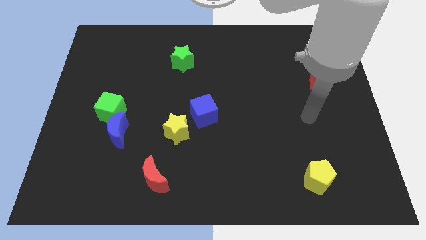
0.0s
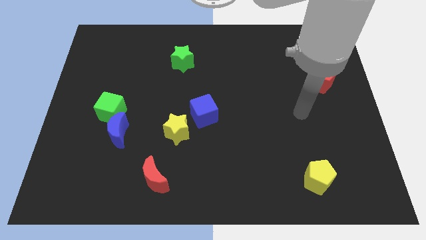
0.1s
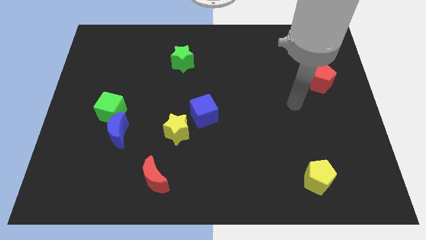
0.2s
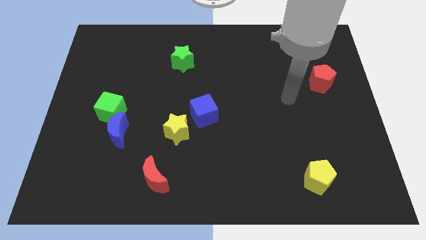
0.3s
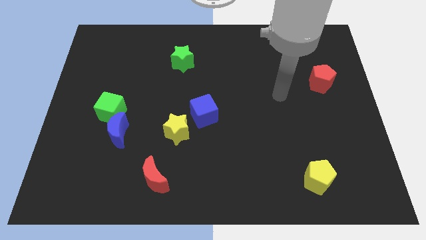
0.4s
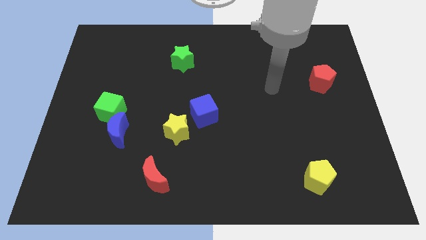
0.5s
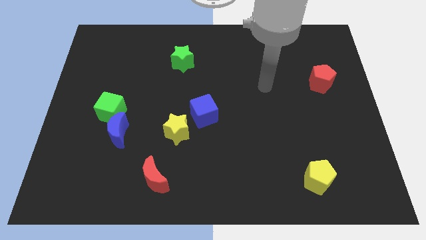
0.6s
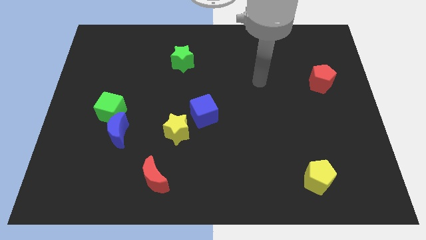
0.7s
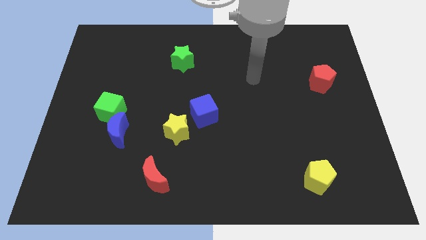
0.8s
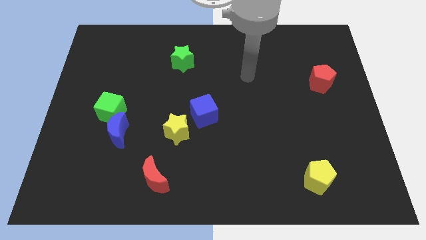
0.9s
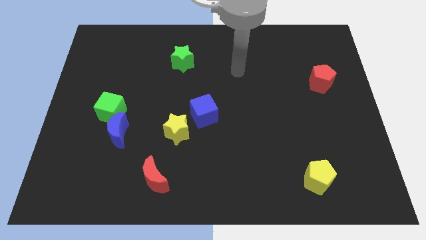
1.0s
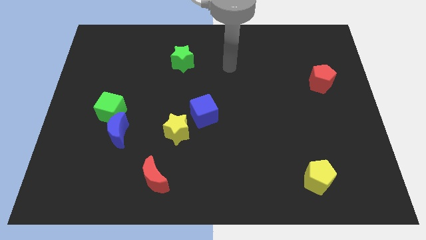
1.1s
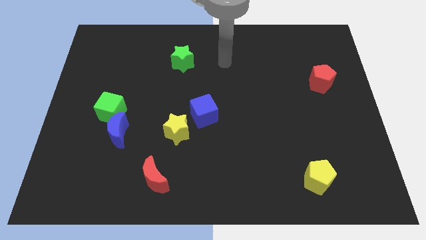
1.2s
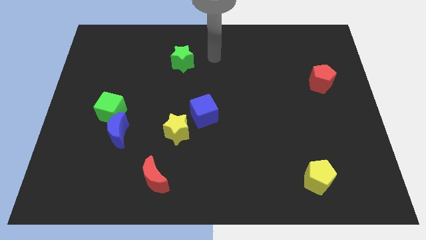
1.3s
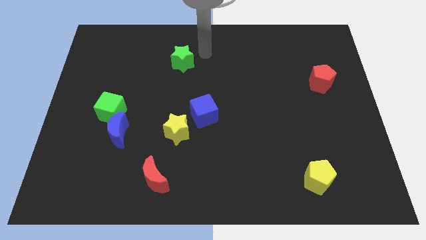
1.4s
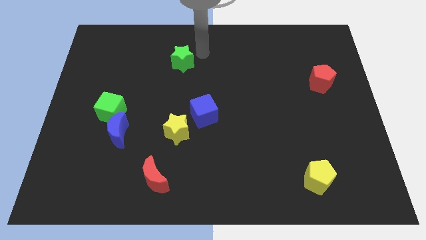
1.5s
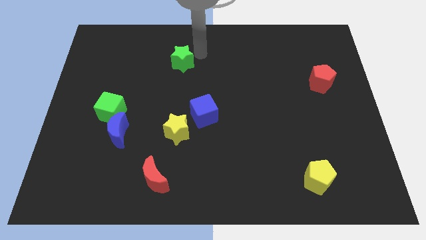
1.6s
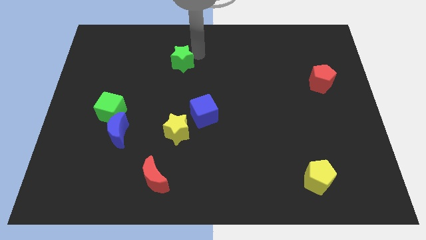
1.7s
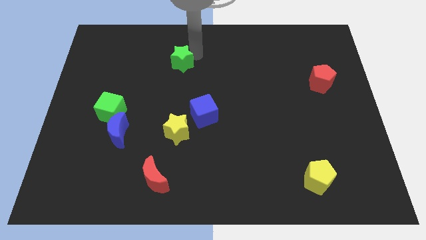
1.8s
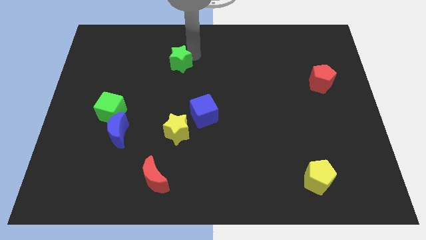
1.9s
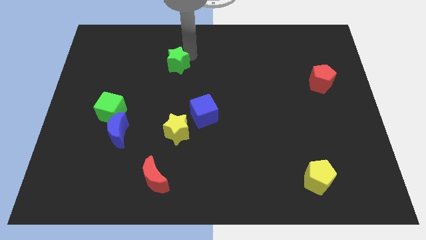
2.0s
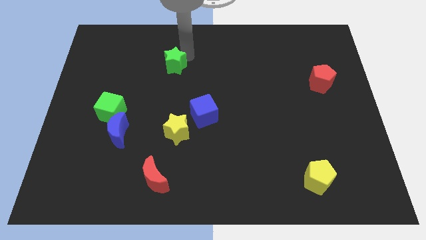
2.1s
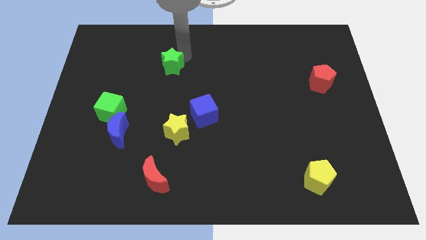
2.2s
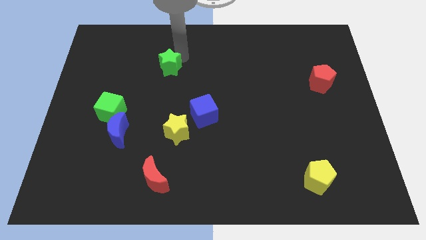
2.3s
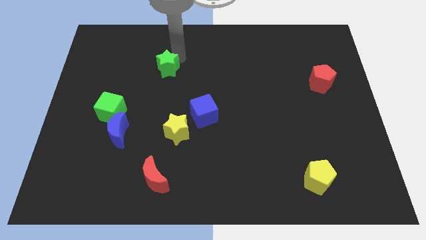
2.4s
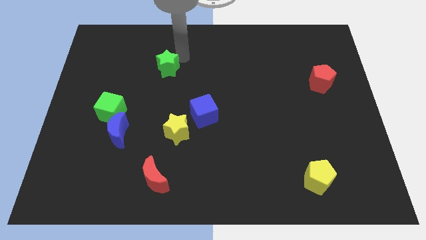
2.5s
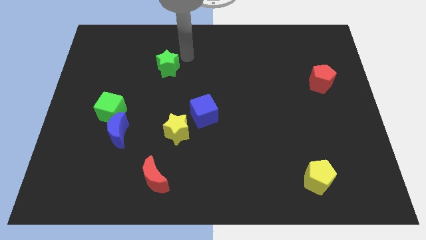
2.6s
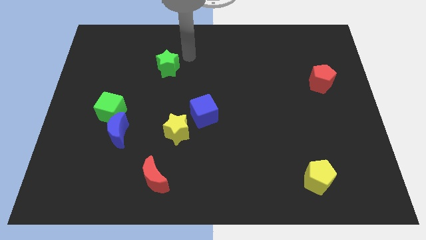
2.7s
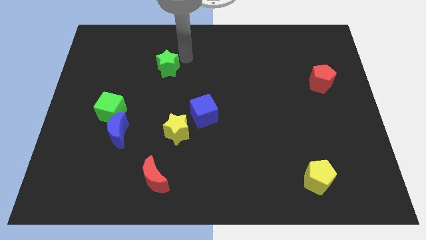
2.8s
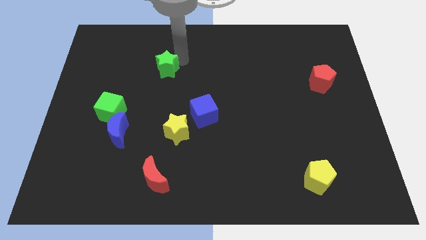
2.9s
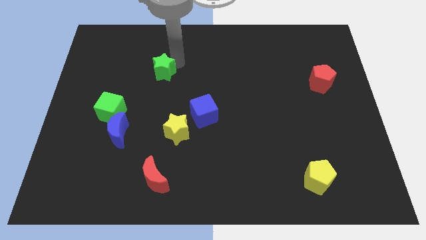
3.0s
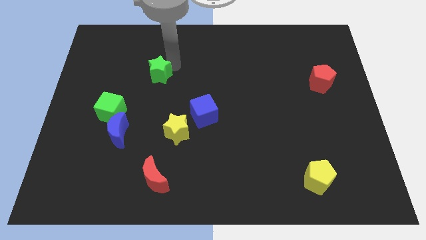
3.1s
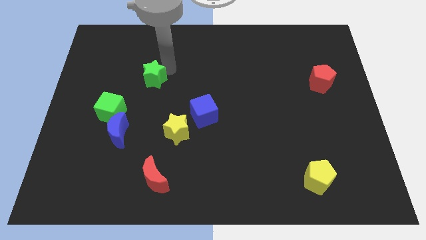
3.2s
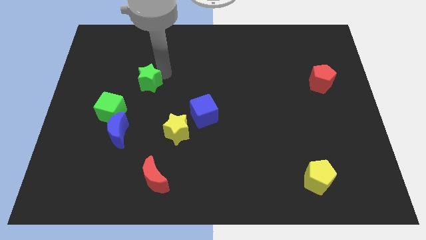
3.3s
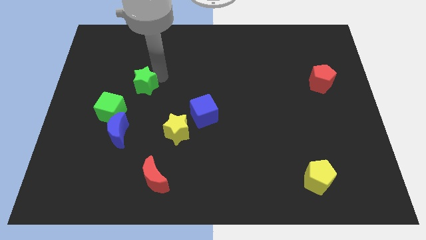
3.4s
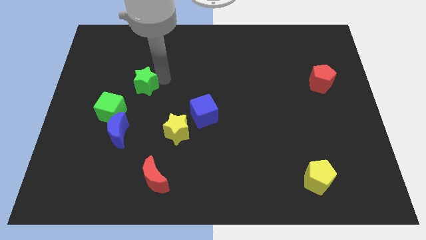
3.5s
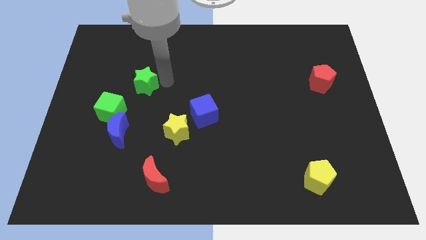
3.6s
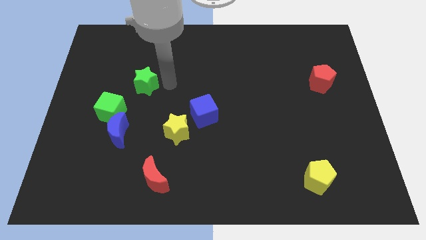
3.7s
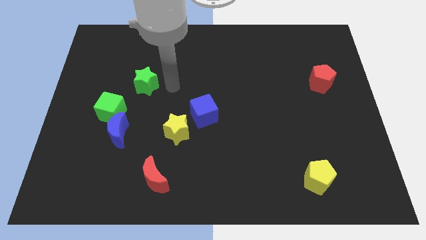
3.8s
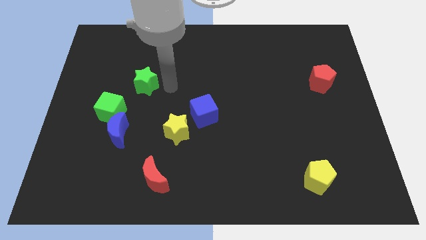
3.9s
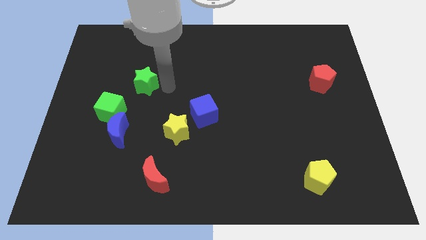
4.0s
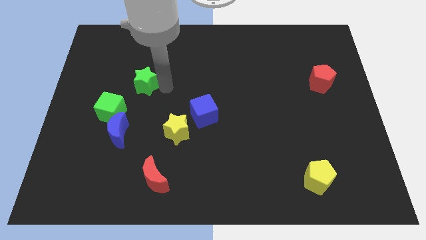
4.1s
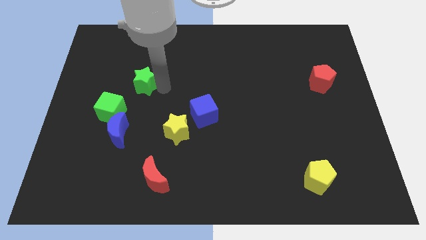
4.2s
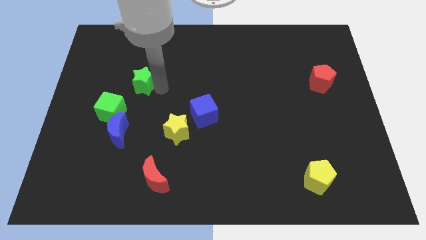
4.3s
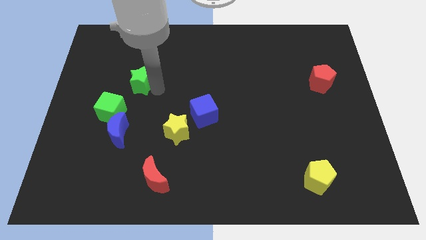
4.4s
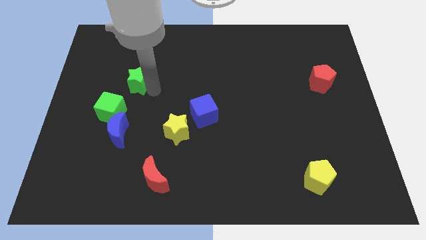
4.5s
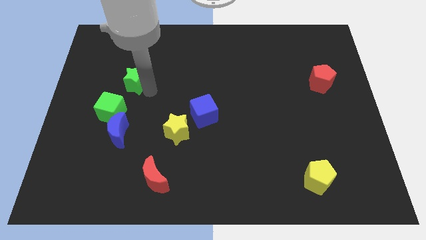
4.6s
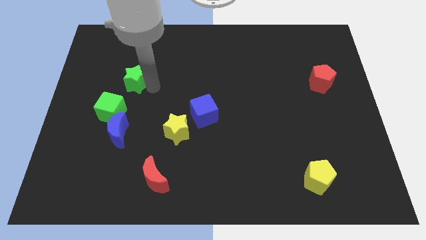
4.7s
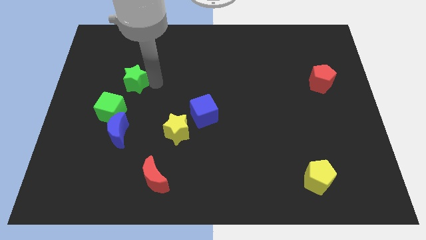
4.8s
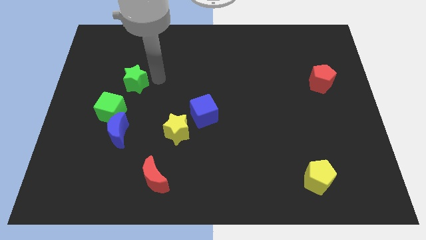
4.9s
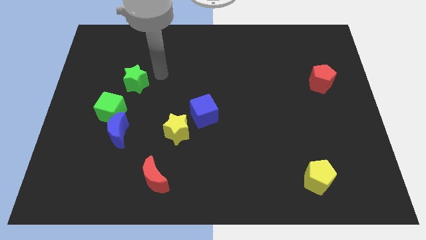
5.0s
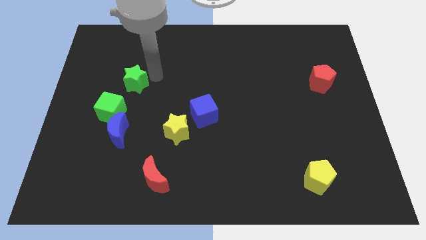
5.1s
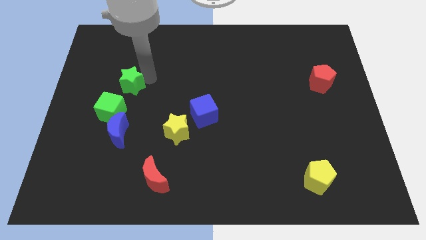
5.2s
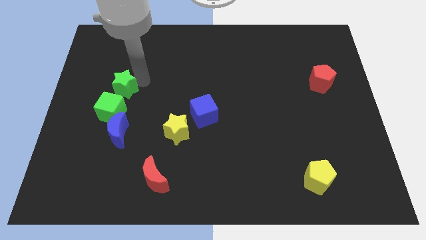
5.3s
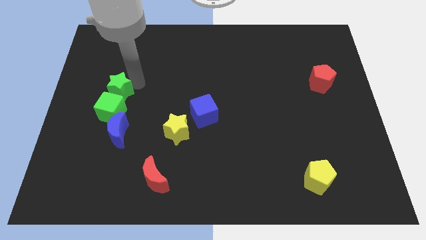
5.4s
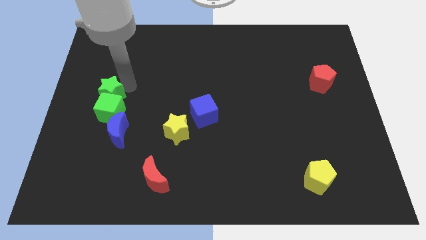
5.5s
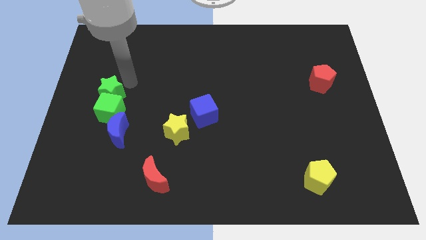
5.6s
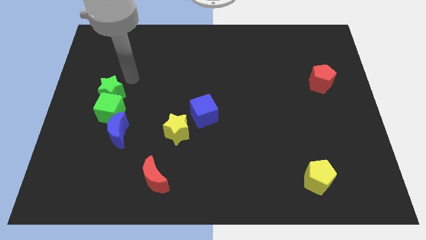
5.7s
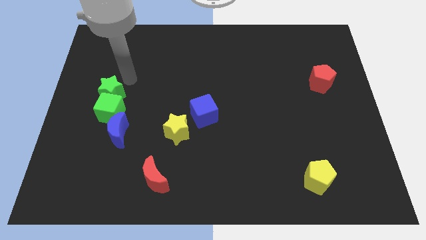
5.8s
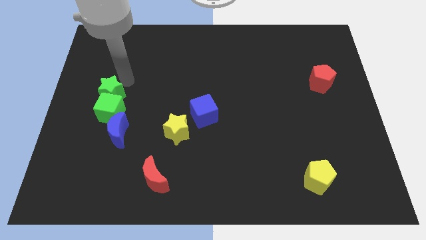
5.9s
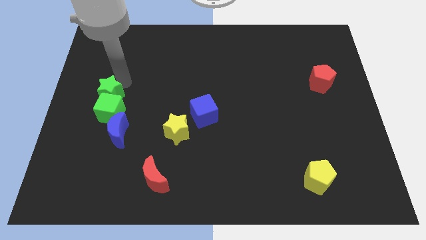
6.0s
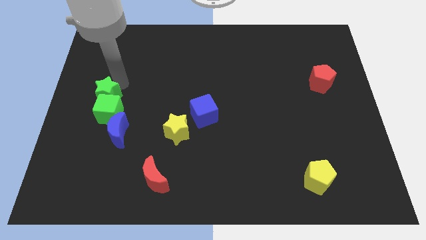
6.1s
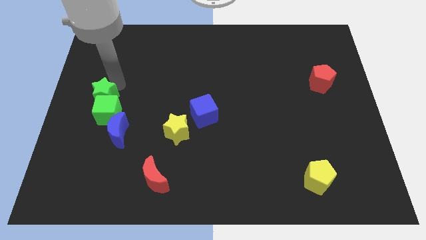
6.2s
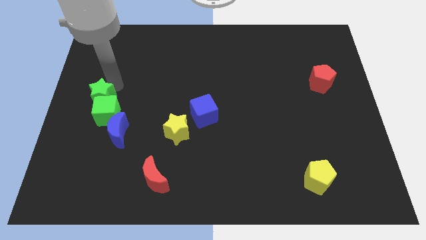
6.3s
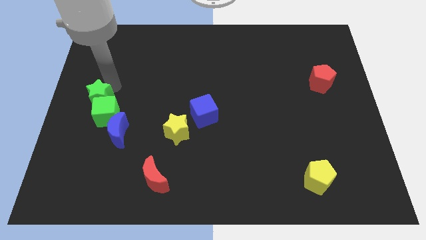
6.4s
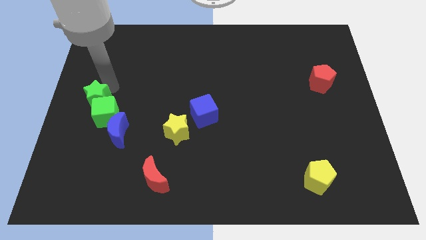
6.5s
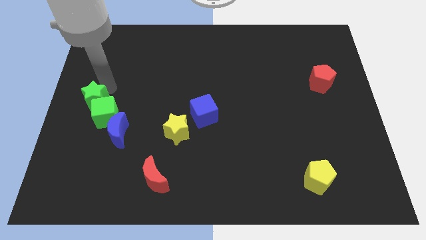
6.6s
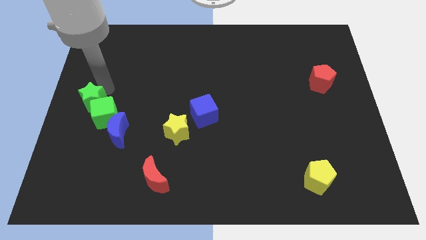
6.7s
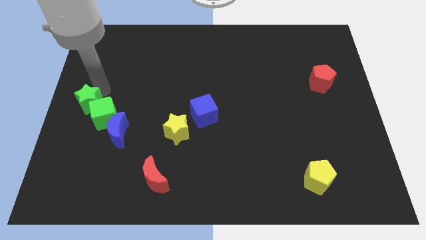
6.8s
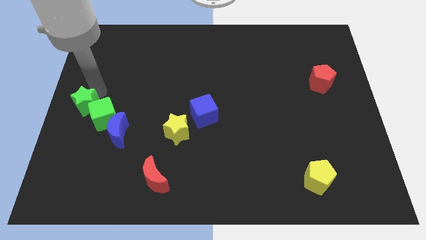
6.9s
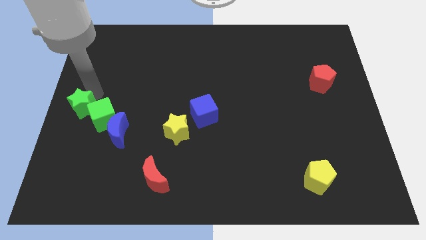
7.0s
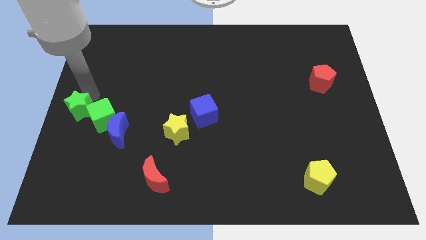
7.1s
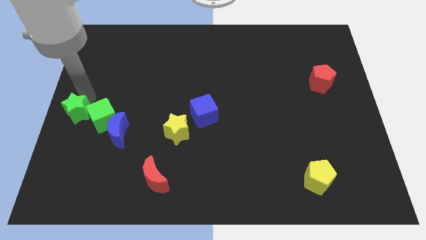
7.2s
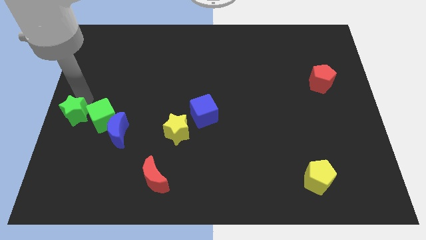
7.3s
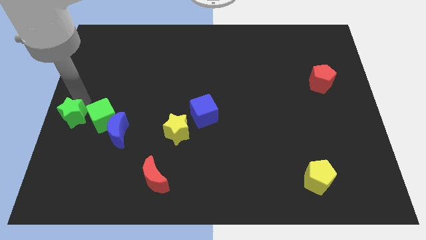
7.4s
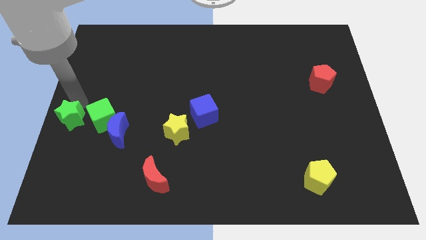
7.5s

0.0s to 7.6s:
move the green star to the bottom left side of the green cube
